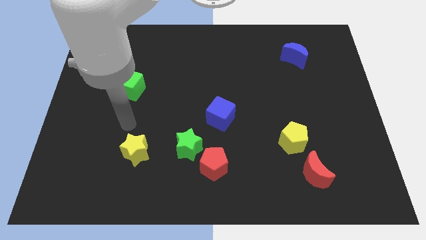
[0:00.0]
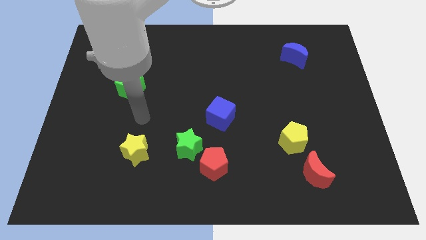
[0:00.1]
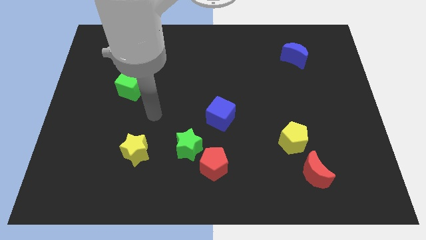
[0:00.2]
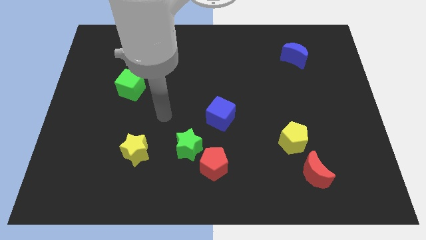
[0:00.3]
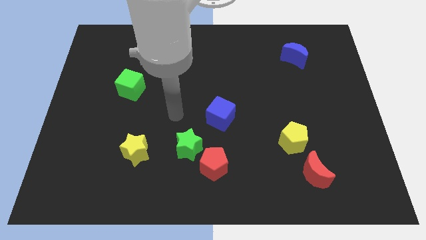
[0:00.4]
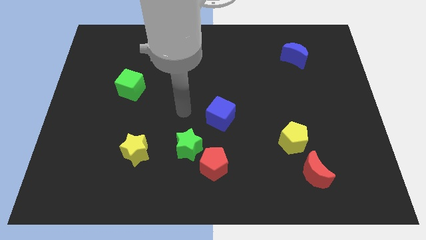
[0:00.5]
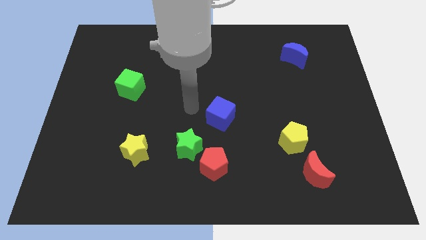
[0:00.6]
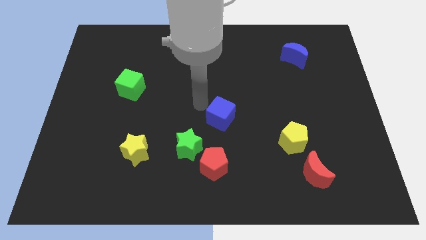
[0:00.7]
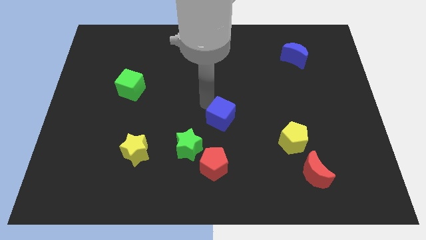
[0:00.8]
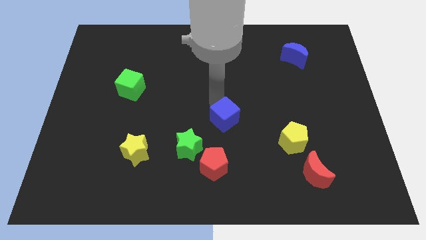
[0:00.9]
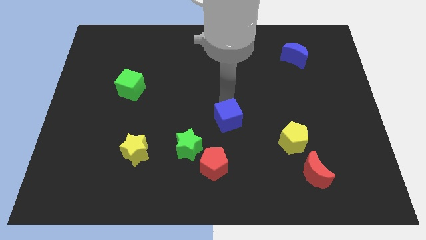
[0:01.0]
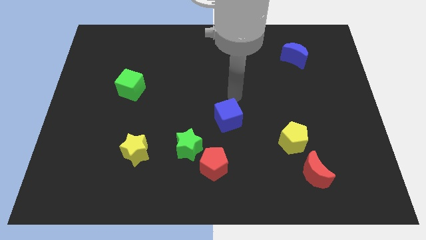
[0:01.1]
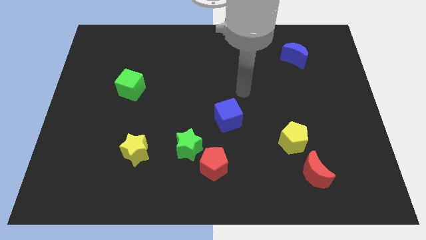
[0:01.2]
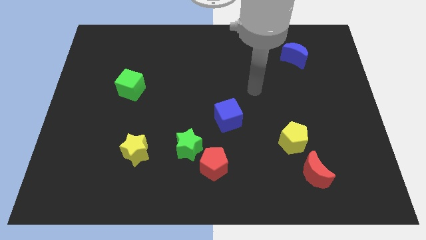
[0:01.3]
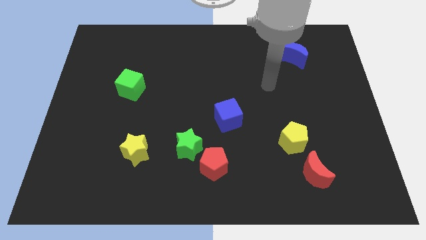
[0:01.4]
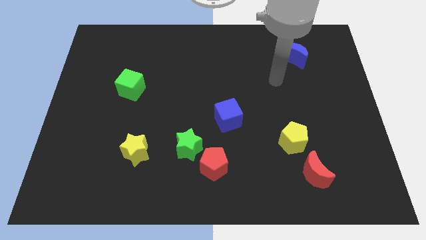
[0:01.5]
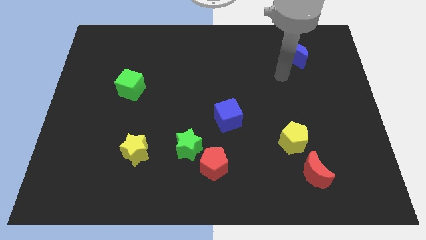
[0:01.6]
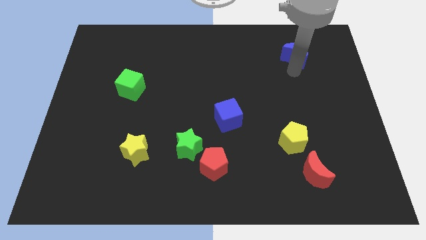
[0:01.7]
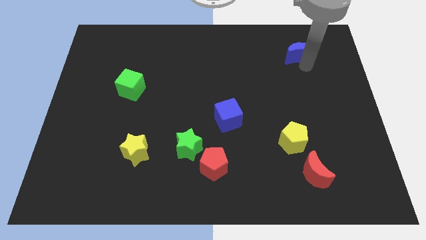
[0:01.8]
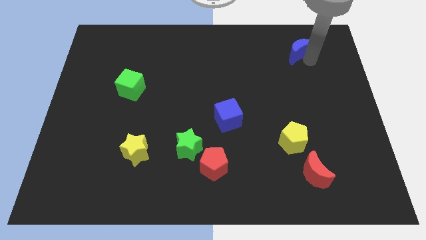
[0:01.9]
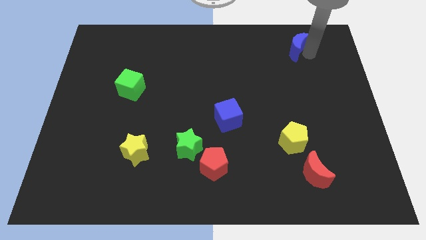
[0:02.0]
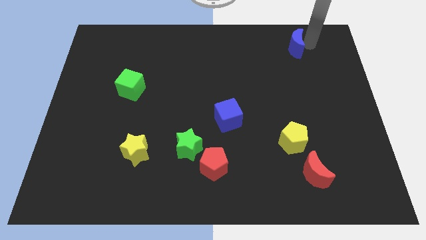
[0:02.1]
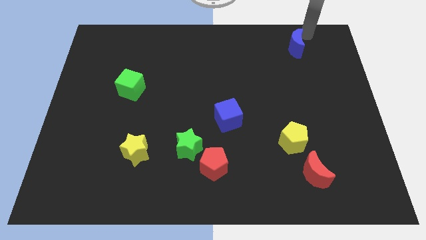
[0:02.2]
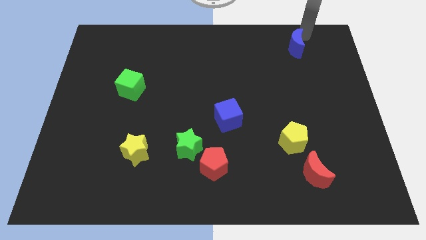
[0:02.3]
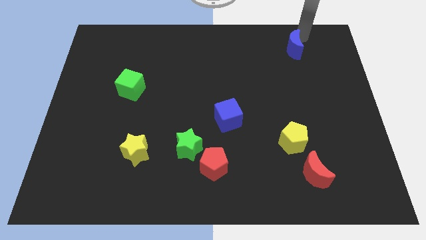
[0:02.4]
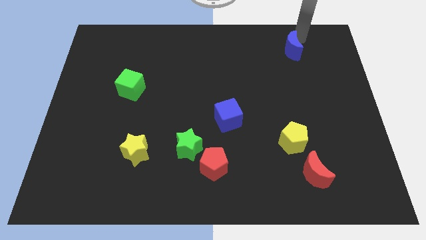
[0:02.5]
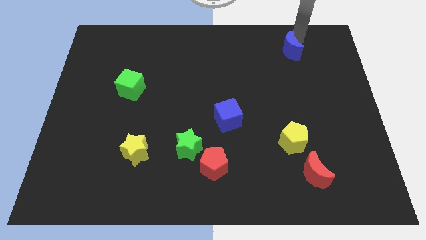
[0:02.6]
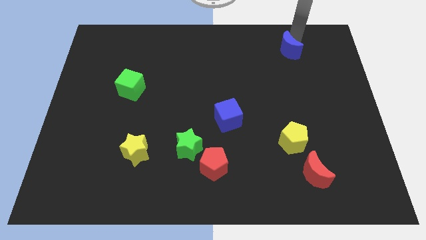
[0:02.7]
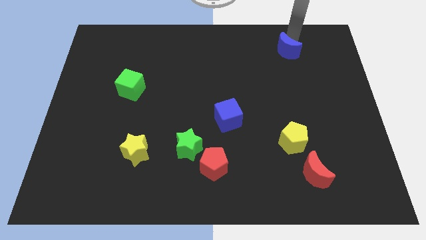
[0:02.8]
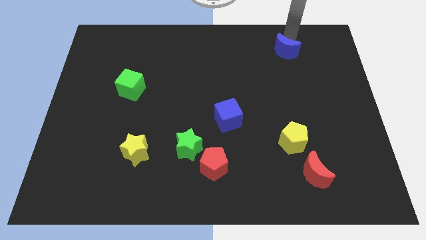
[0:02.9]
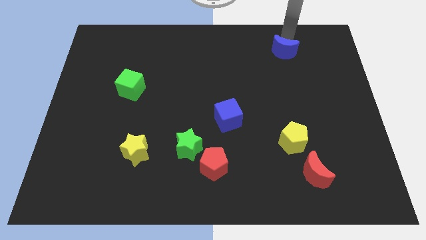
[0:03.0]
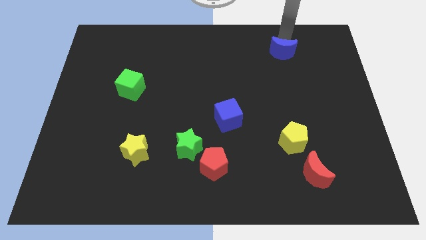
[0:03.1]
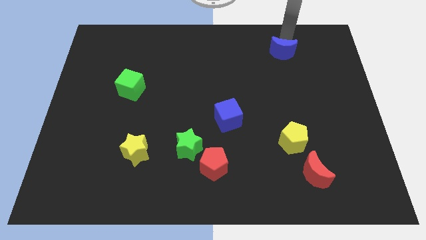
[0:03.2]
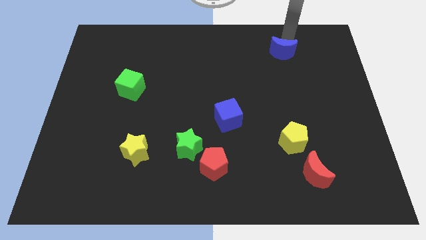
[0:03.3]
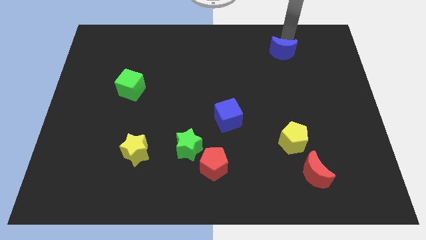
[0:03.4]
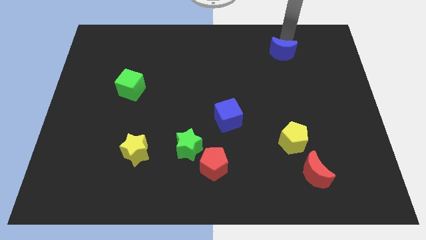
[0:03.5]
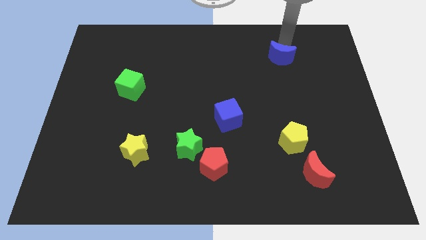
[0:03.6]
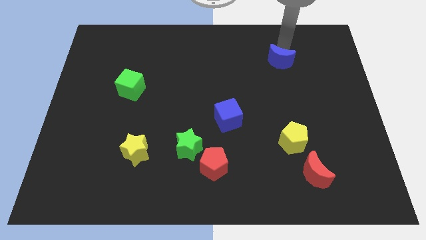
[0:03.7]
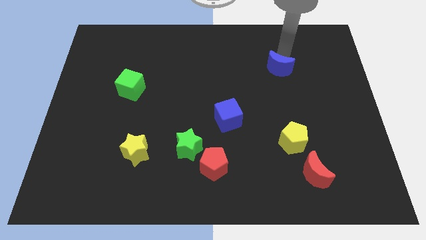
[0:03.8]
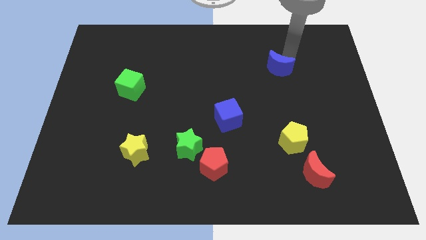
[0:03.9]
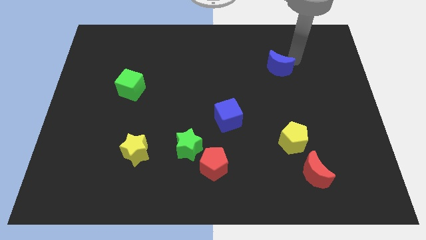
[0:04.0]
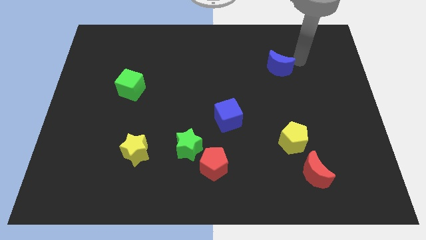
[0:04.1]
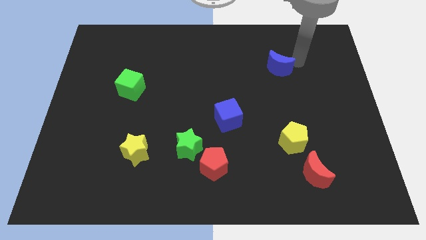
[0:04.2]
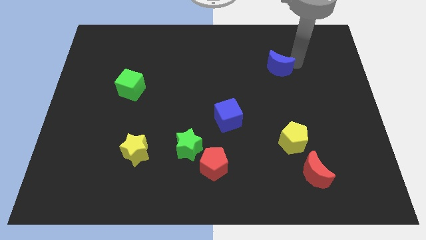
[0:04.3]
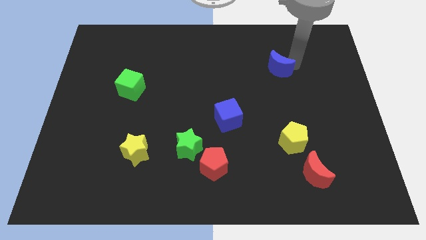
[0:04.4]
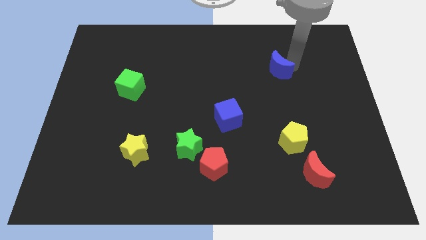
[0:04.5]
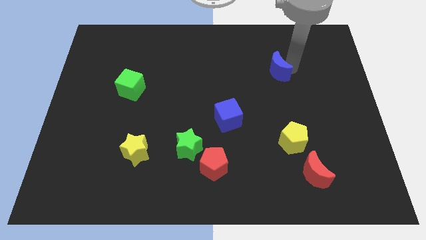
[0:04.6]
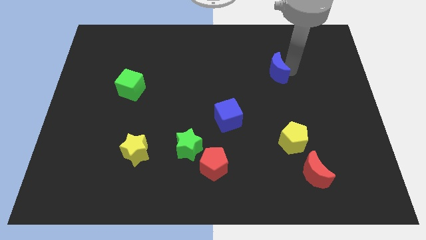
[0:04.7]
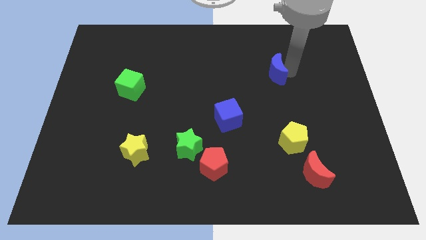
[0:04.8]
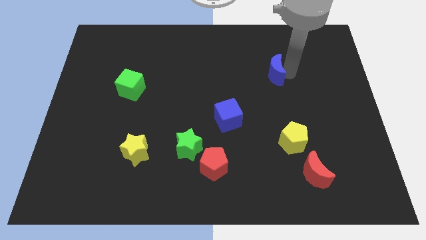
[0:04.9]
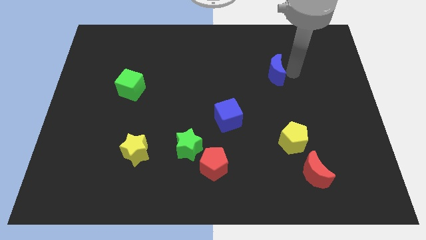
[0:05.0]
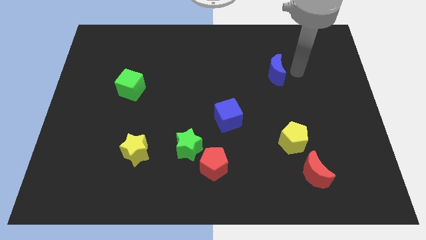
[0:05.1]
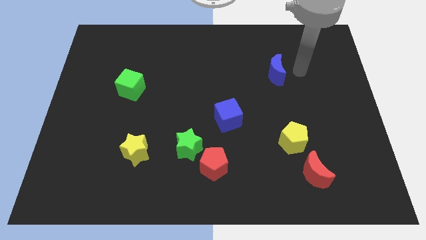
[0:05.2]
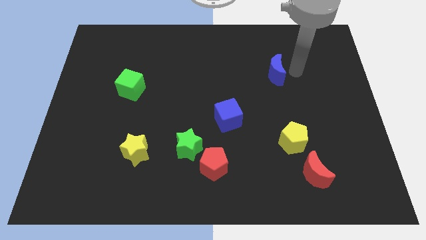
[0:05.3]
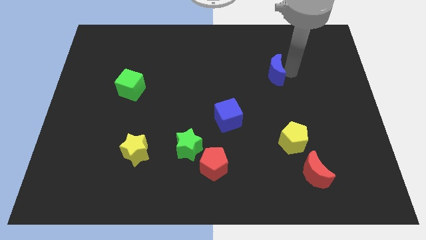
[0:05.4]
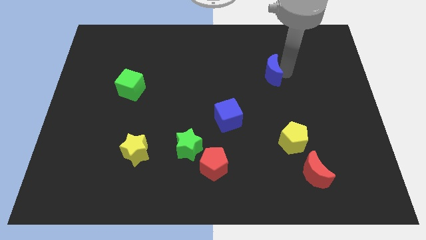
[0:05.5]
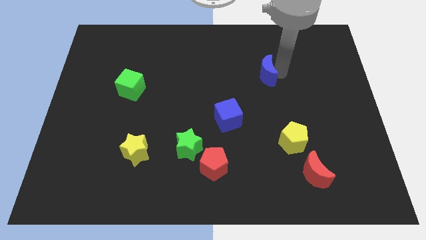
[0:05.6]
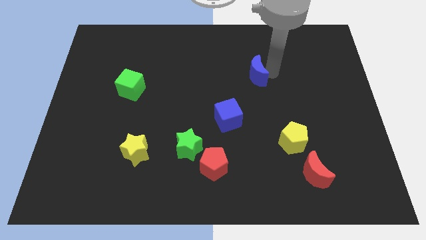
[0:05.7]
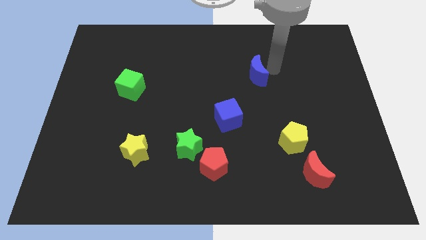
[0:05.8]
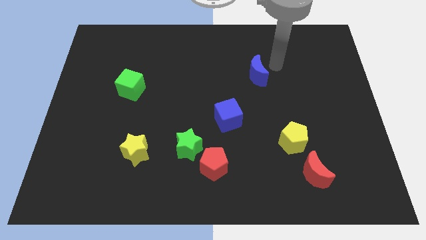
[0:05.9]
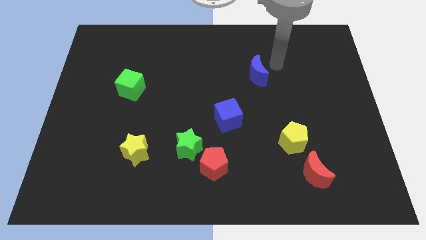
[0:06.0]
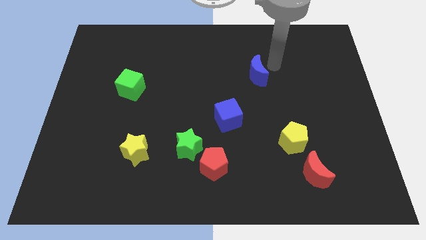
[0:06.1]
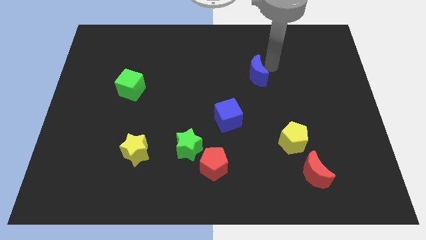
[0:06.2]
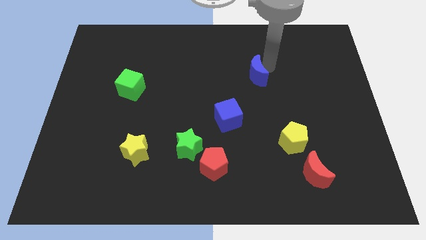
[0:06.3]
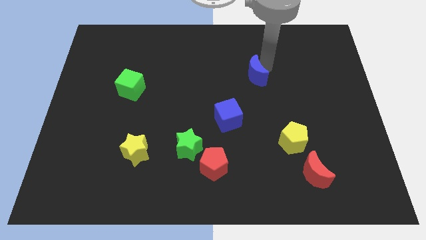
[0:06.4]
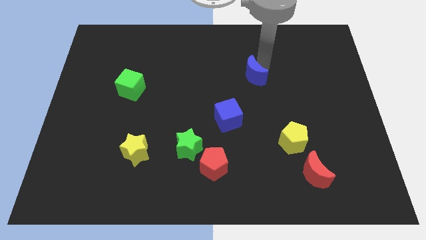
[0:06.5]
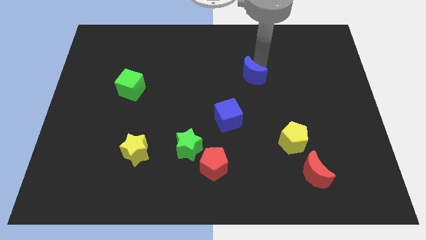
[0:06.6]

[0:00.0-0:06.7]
move the blue moon to the middle of the board
